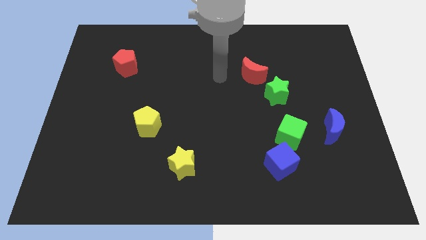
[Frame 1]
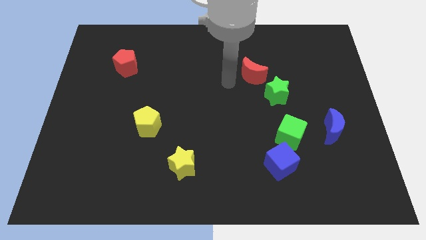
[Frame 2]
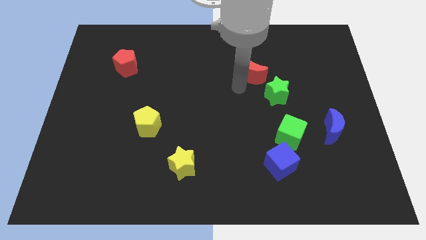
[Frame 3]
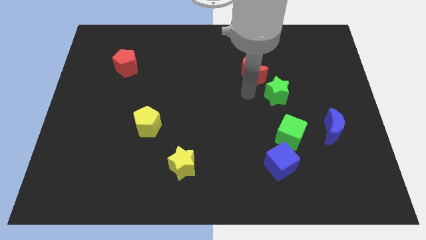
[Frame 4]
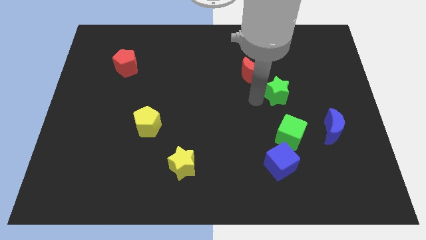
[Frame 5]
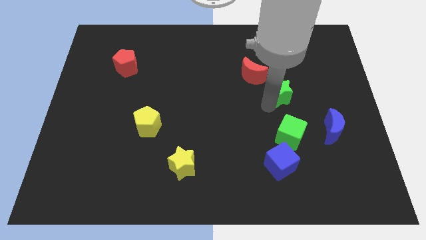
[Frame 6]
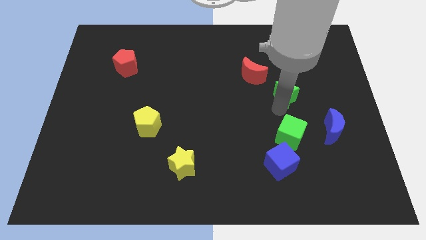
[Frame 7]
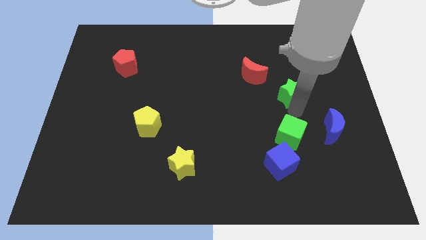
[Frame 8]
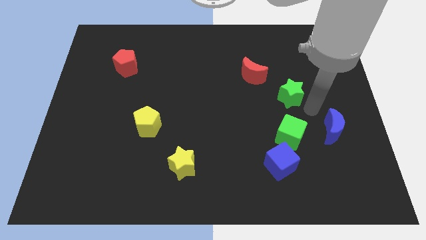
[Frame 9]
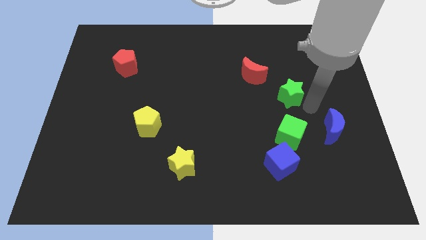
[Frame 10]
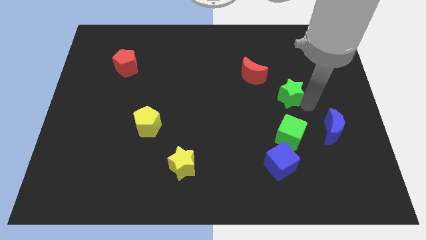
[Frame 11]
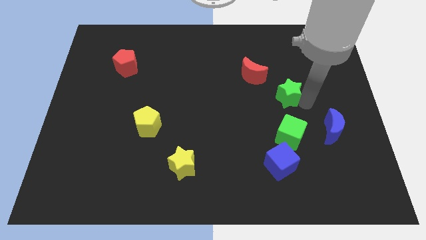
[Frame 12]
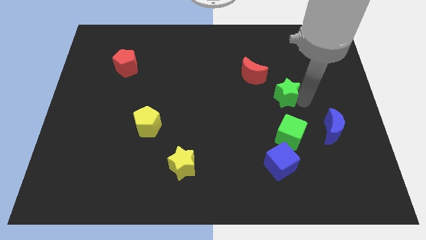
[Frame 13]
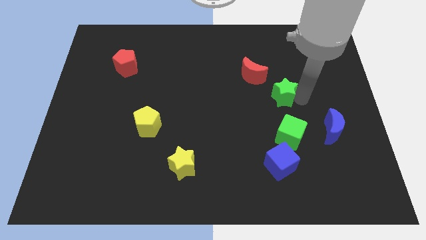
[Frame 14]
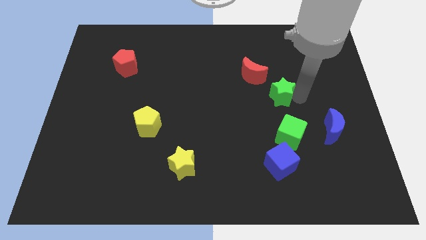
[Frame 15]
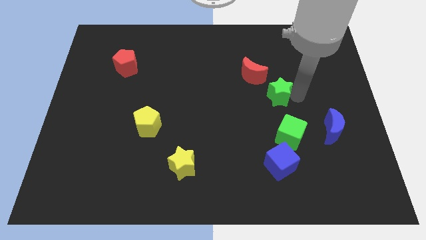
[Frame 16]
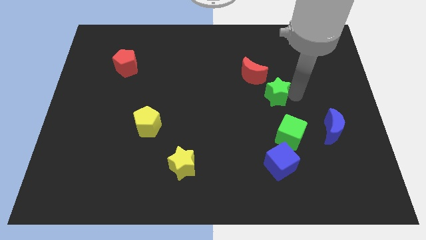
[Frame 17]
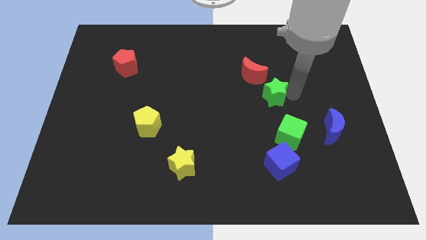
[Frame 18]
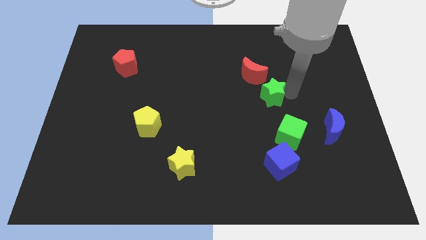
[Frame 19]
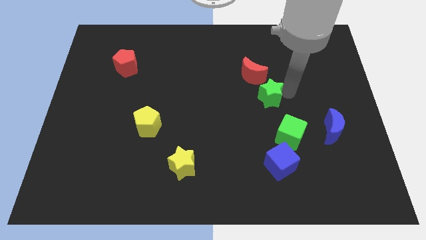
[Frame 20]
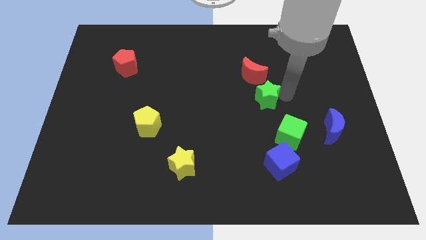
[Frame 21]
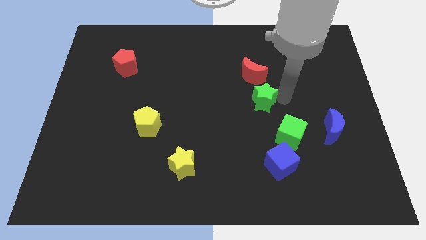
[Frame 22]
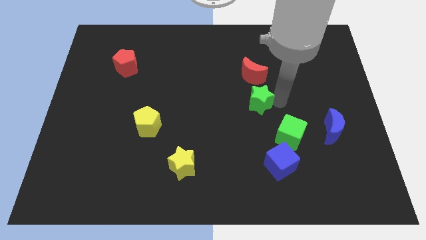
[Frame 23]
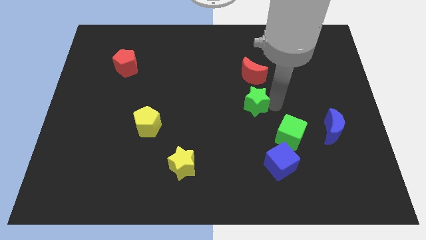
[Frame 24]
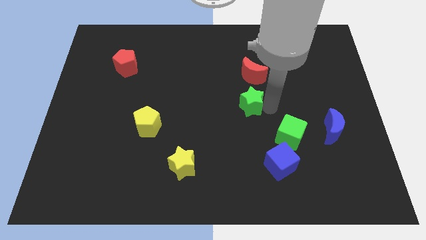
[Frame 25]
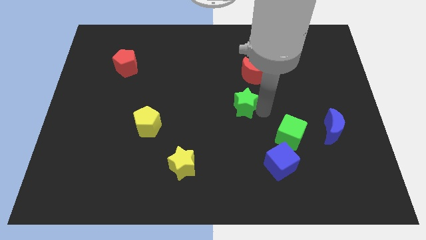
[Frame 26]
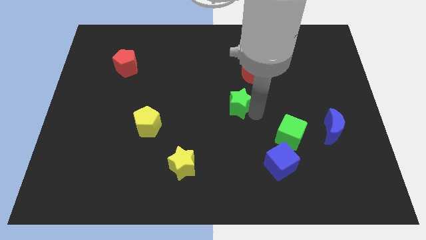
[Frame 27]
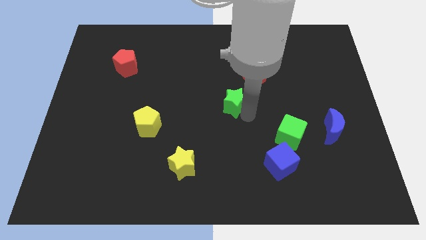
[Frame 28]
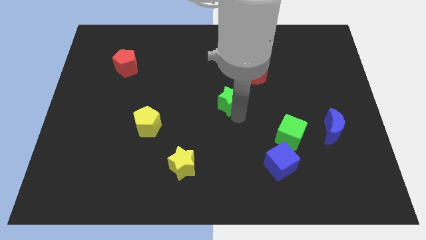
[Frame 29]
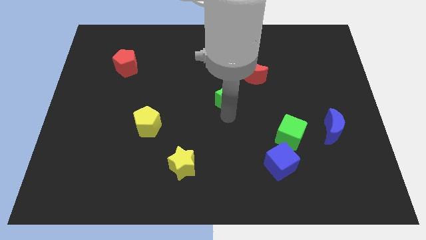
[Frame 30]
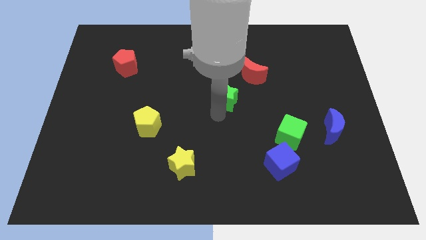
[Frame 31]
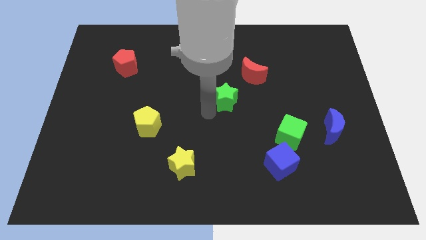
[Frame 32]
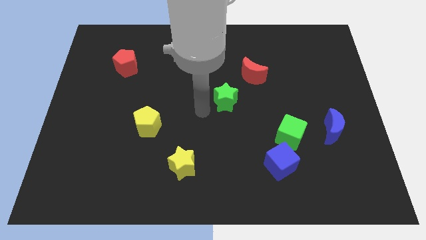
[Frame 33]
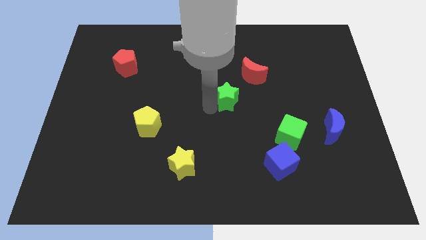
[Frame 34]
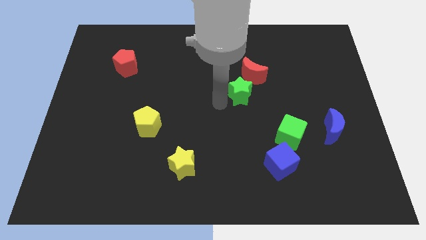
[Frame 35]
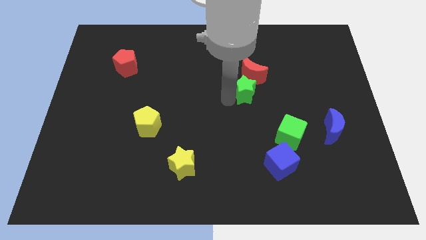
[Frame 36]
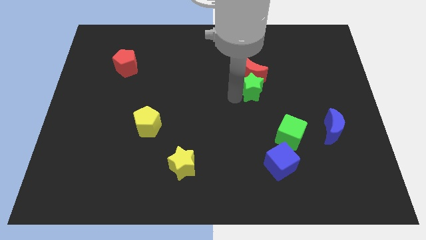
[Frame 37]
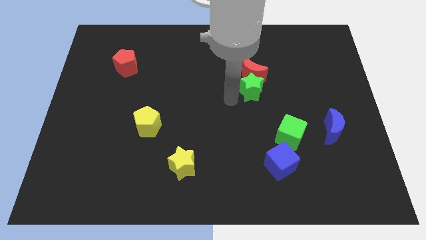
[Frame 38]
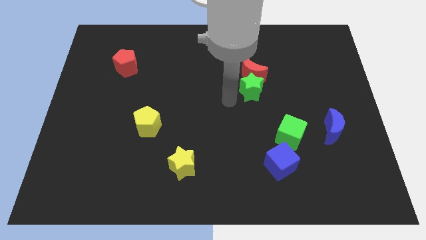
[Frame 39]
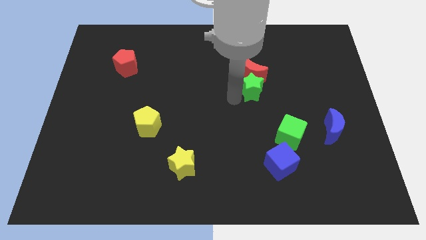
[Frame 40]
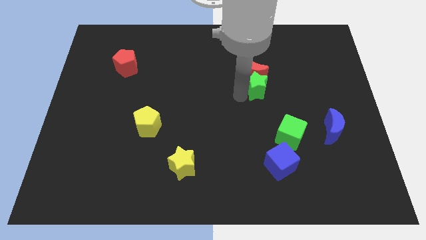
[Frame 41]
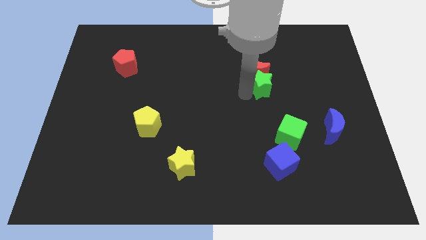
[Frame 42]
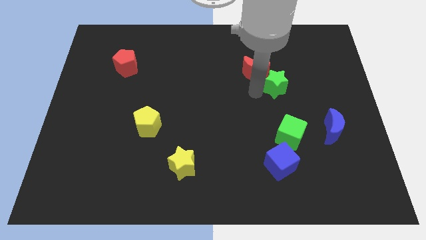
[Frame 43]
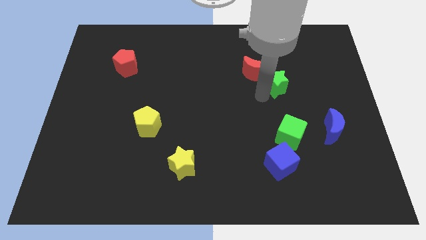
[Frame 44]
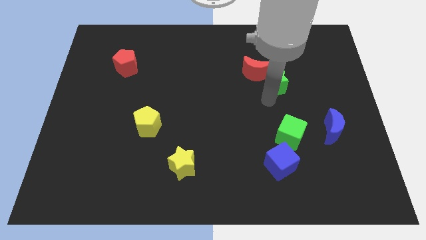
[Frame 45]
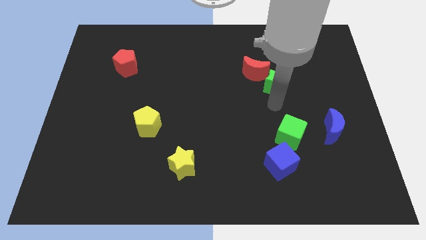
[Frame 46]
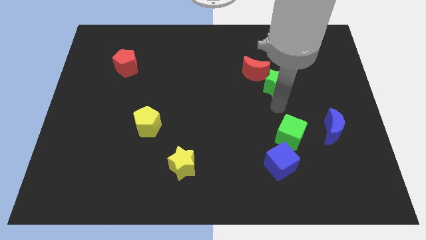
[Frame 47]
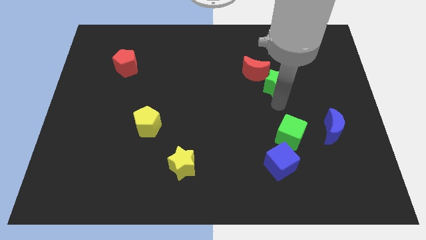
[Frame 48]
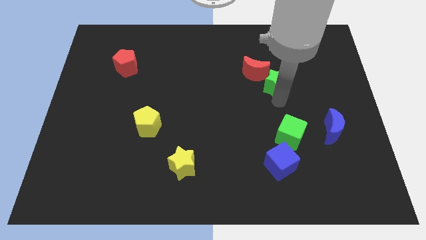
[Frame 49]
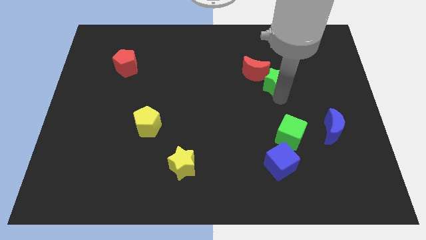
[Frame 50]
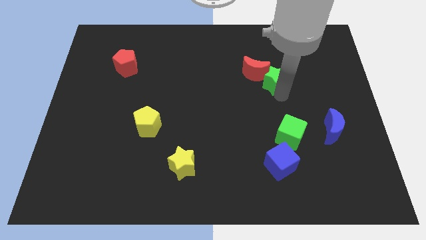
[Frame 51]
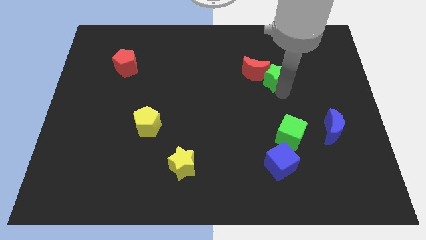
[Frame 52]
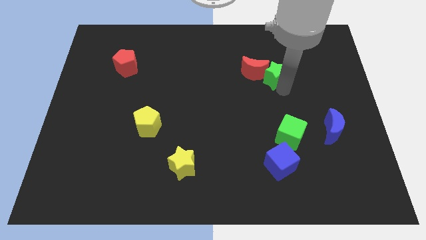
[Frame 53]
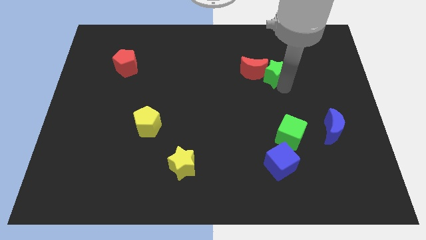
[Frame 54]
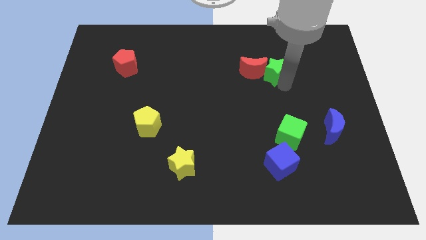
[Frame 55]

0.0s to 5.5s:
move the green star diagonally up and to the right of the red moon

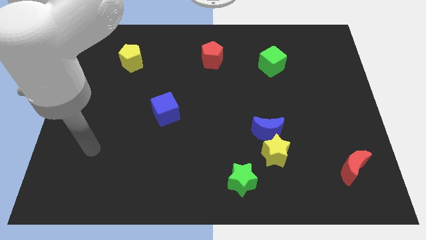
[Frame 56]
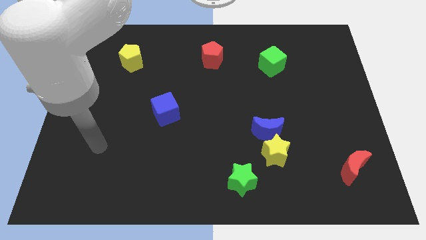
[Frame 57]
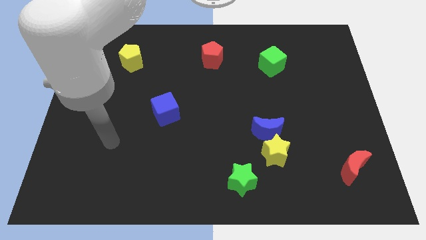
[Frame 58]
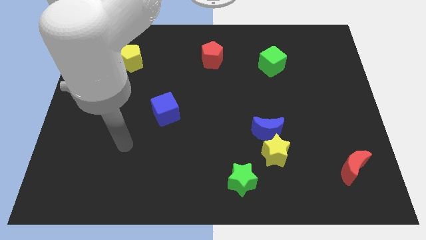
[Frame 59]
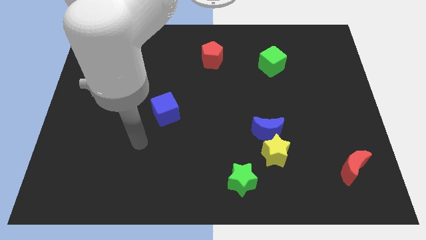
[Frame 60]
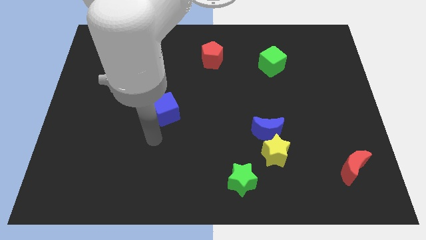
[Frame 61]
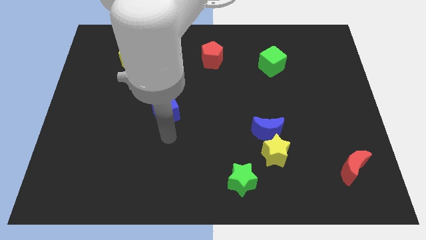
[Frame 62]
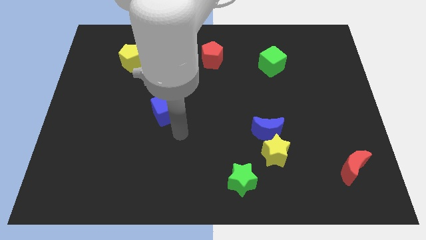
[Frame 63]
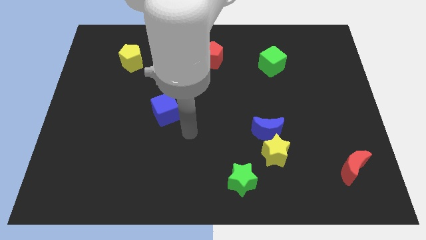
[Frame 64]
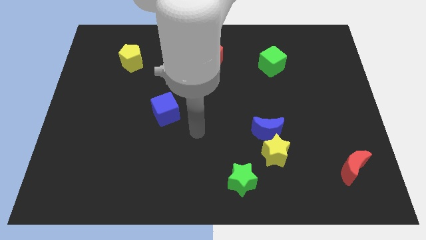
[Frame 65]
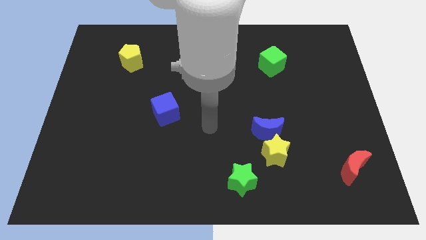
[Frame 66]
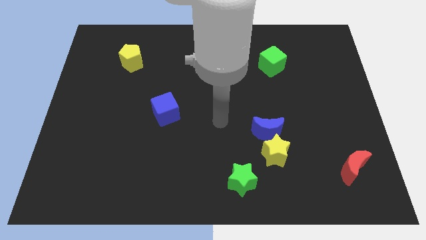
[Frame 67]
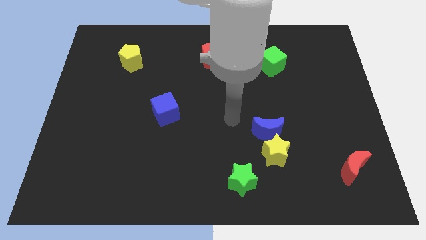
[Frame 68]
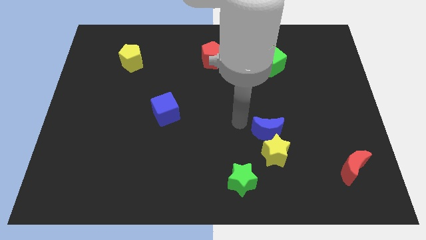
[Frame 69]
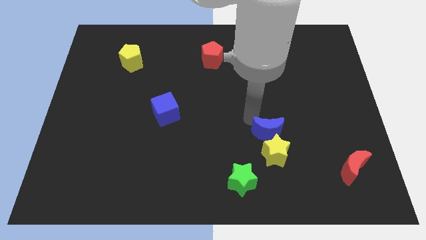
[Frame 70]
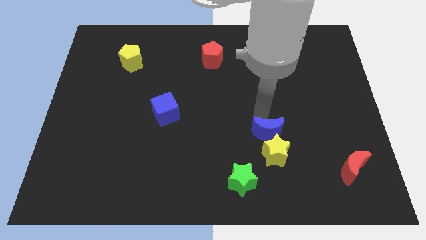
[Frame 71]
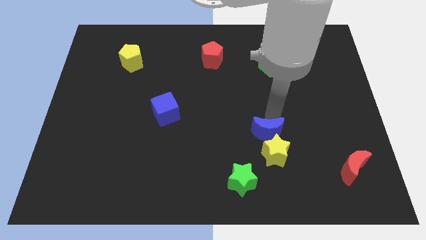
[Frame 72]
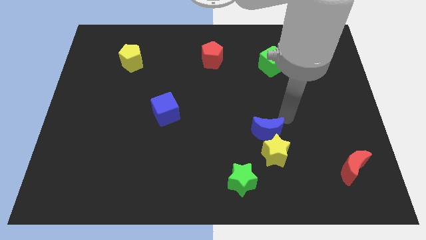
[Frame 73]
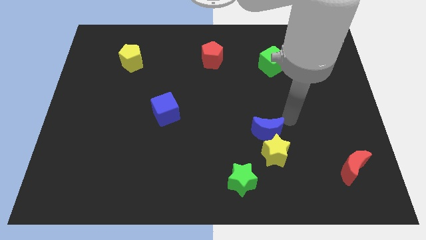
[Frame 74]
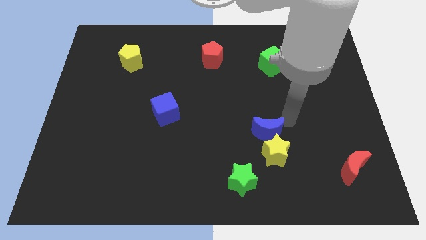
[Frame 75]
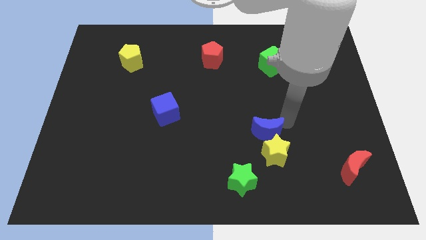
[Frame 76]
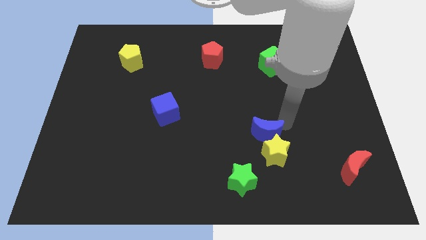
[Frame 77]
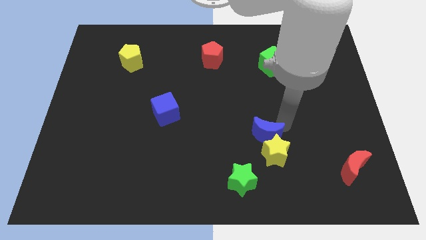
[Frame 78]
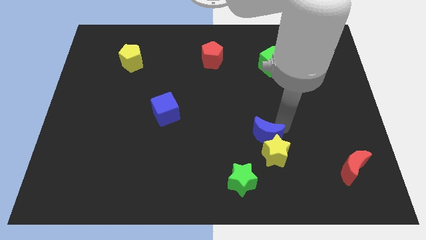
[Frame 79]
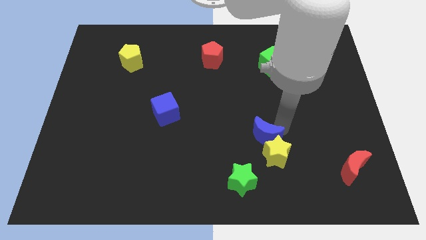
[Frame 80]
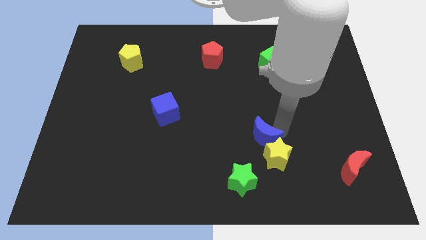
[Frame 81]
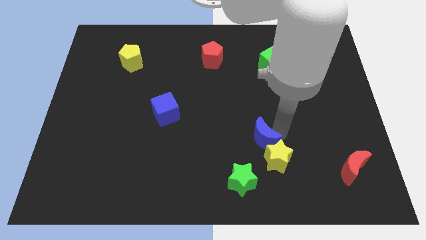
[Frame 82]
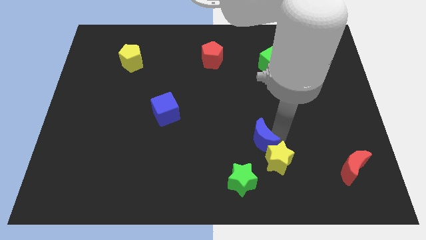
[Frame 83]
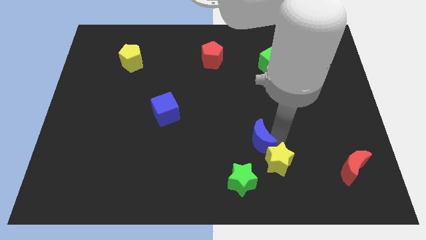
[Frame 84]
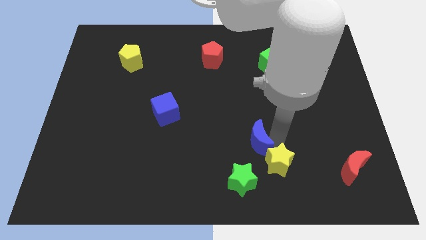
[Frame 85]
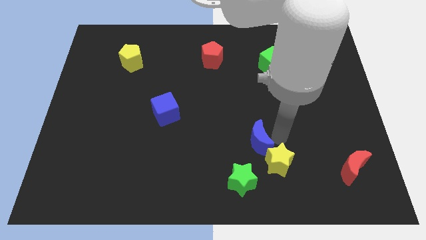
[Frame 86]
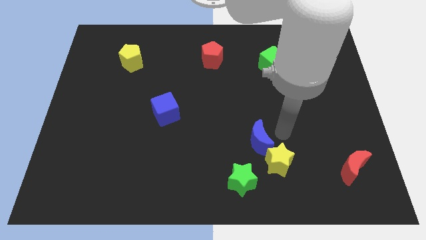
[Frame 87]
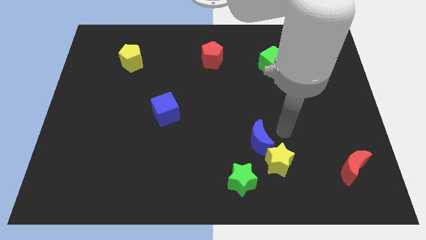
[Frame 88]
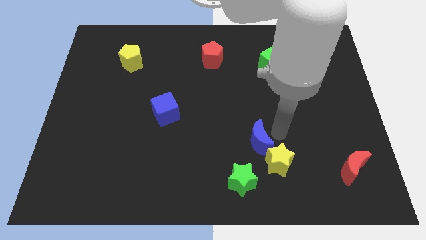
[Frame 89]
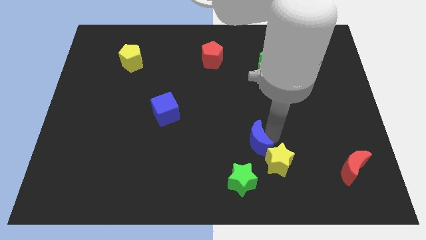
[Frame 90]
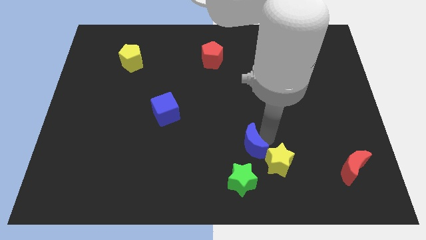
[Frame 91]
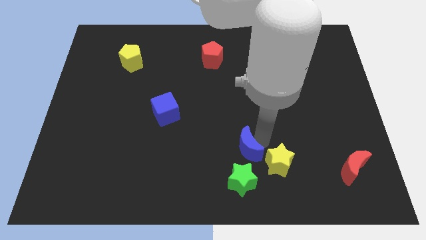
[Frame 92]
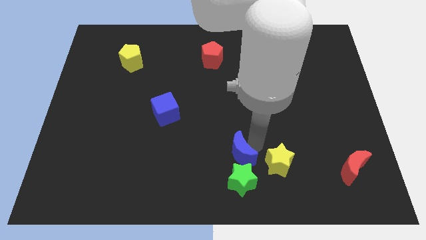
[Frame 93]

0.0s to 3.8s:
move the blue moon to the top left side of the green star
